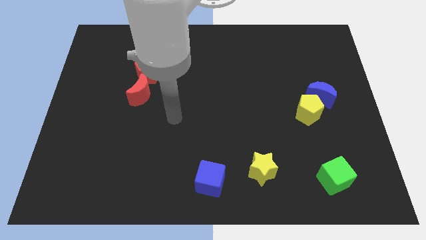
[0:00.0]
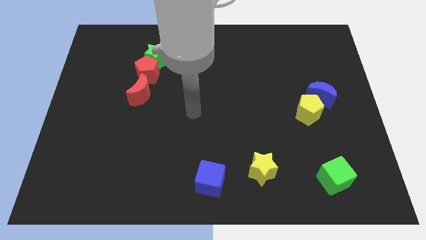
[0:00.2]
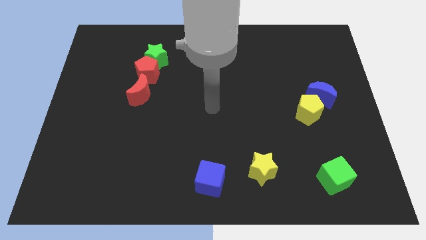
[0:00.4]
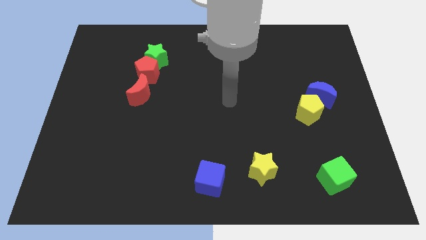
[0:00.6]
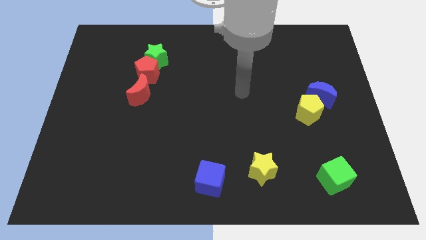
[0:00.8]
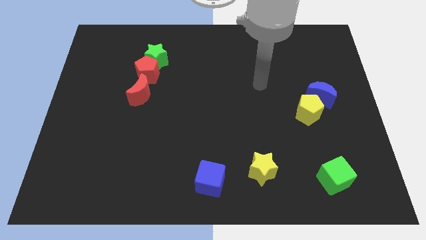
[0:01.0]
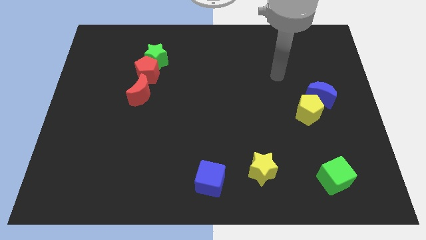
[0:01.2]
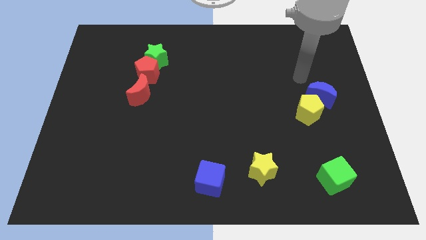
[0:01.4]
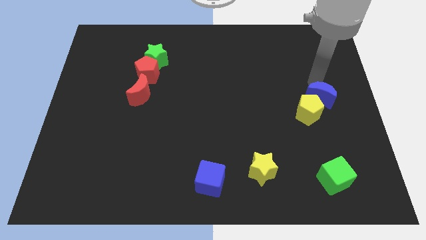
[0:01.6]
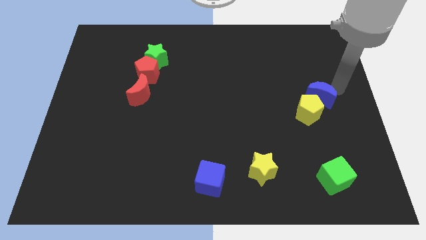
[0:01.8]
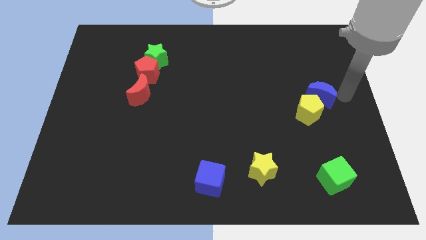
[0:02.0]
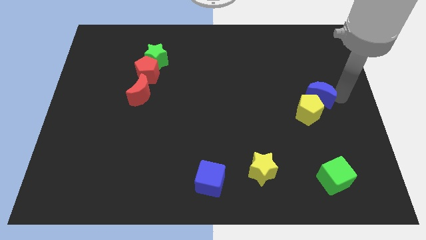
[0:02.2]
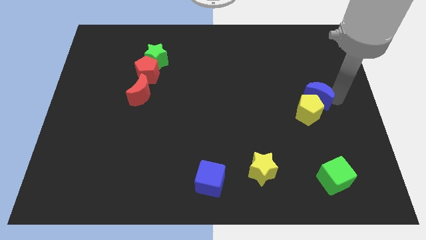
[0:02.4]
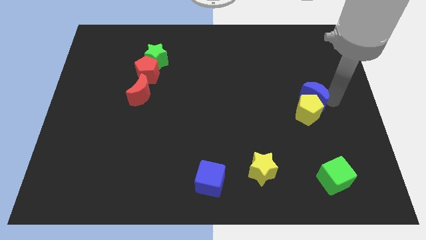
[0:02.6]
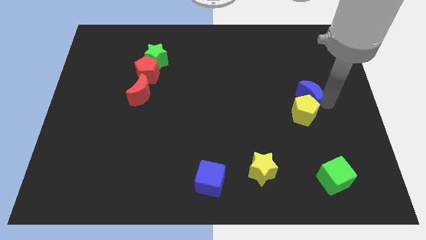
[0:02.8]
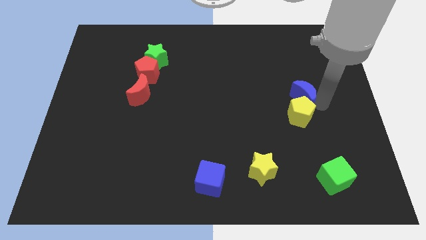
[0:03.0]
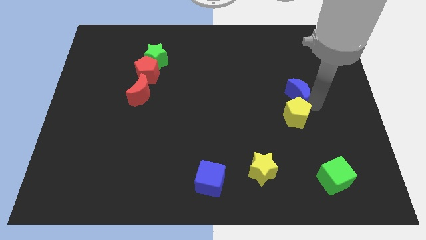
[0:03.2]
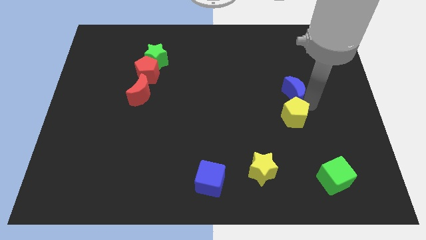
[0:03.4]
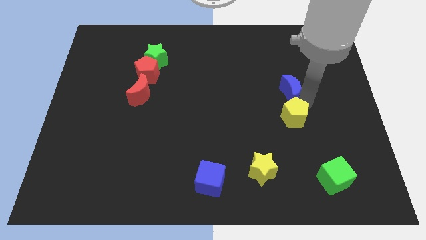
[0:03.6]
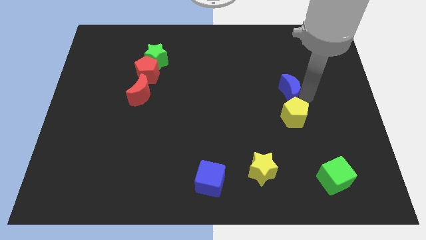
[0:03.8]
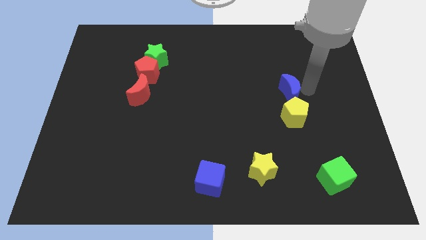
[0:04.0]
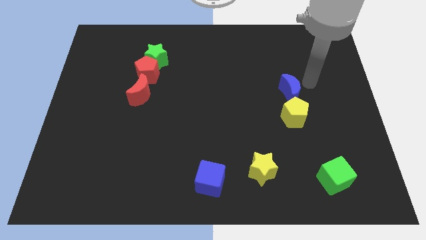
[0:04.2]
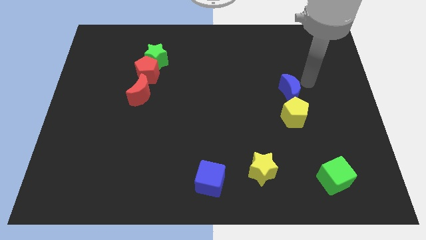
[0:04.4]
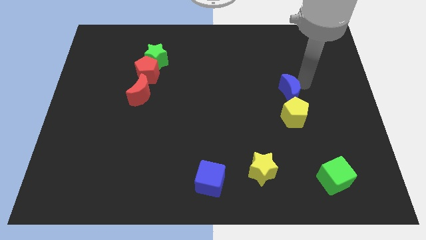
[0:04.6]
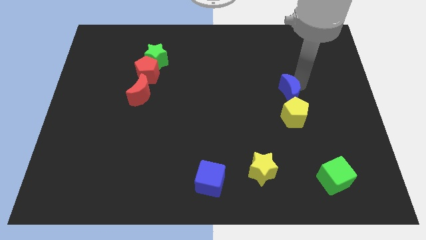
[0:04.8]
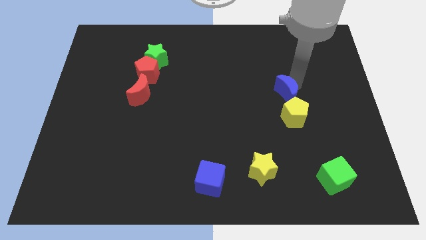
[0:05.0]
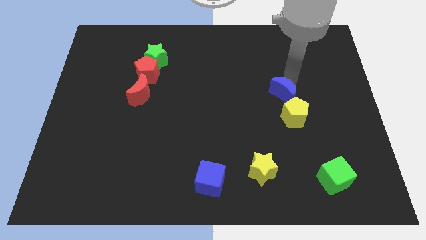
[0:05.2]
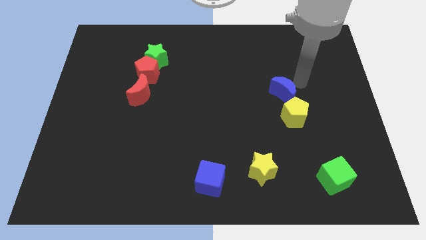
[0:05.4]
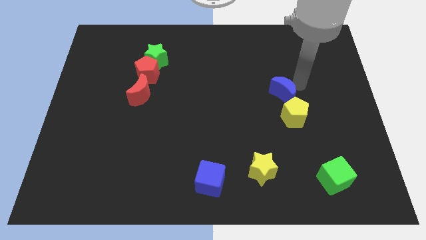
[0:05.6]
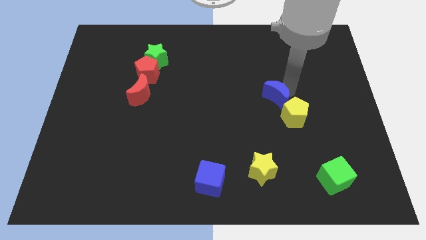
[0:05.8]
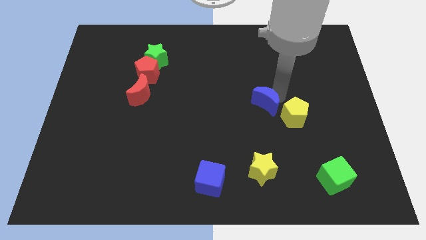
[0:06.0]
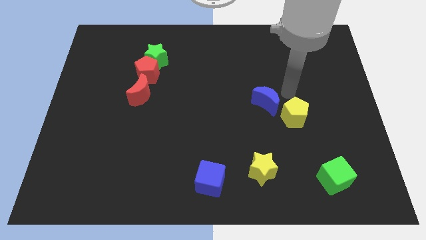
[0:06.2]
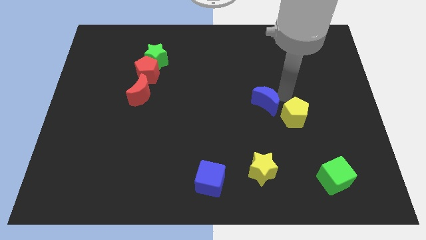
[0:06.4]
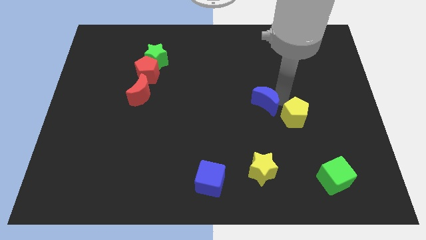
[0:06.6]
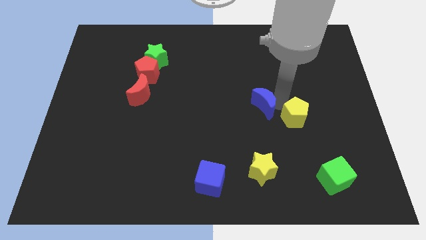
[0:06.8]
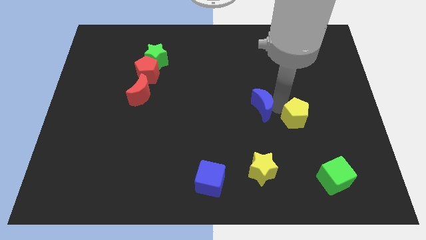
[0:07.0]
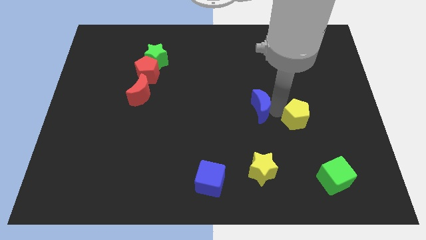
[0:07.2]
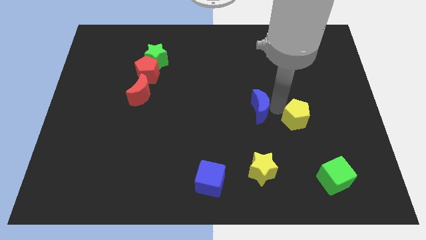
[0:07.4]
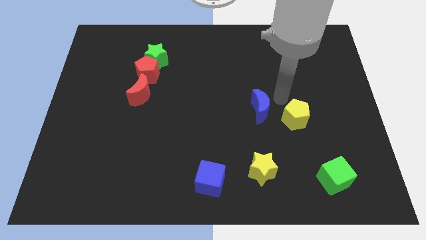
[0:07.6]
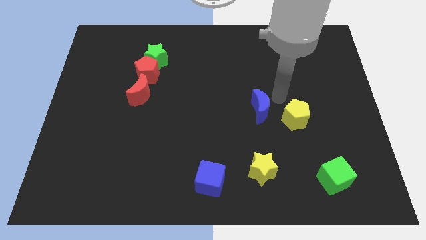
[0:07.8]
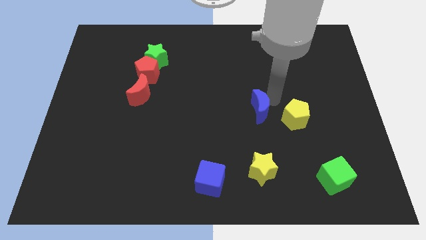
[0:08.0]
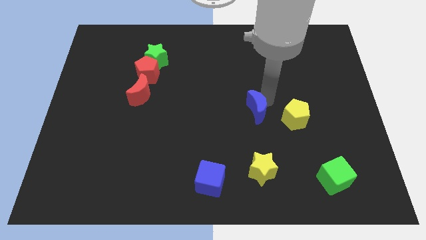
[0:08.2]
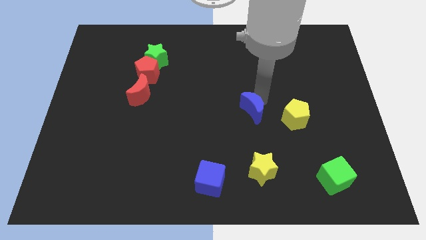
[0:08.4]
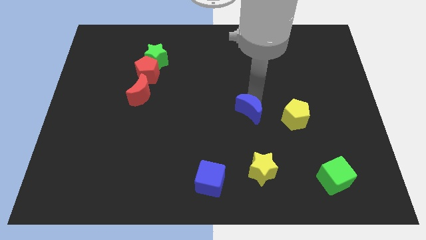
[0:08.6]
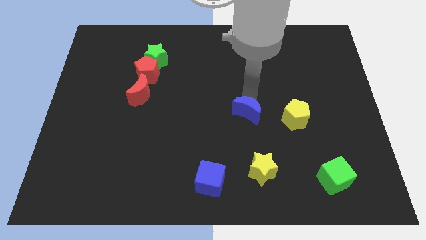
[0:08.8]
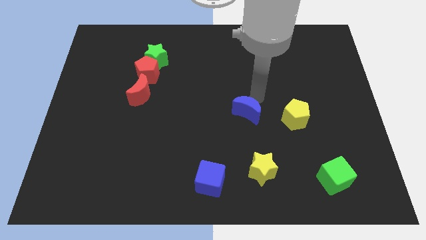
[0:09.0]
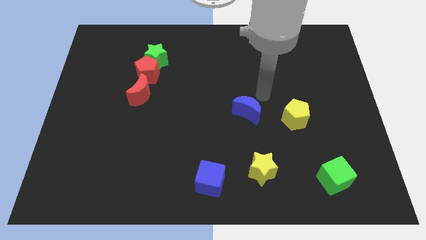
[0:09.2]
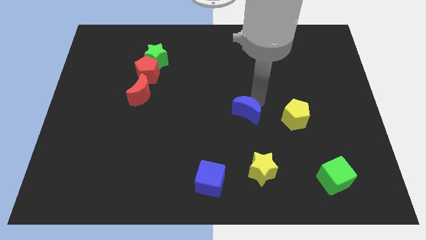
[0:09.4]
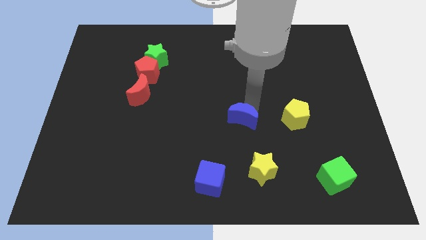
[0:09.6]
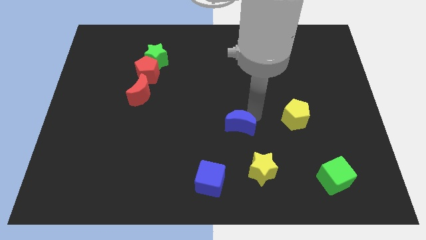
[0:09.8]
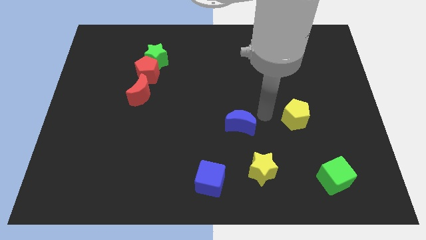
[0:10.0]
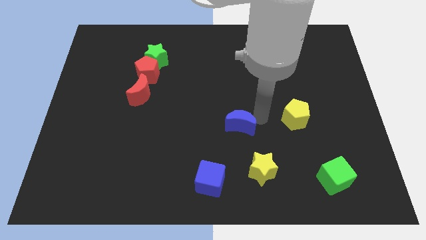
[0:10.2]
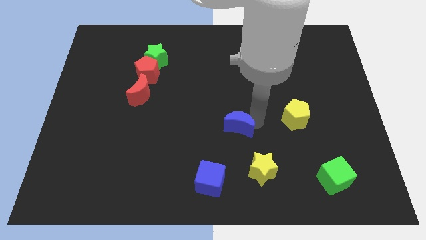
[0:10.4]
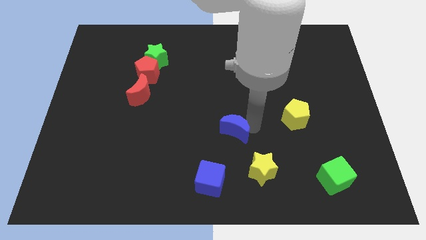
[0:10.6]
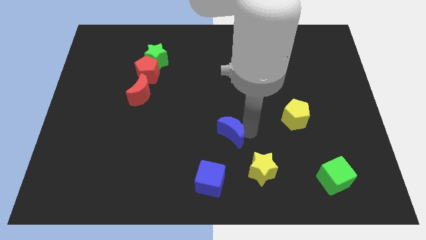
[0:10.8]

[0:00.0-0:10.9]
push the blue moon to the top of the blue cube

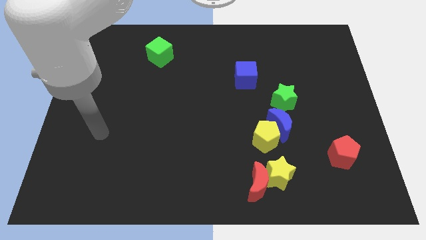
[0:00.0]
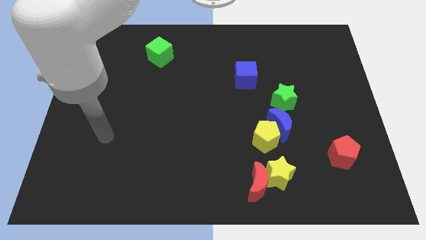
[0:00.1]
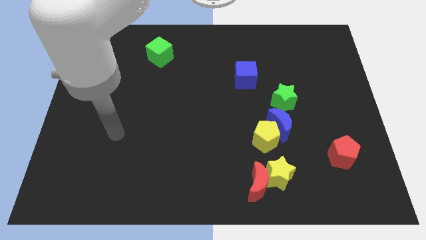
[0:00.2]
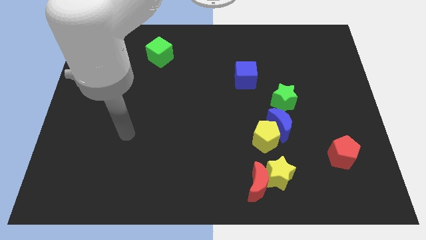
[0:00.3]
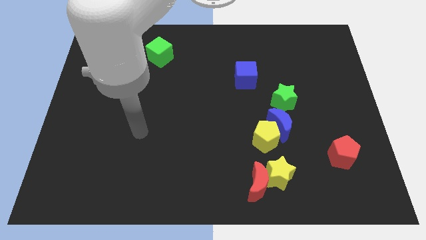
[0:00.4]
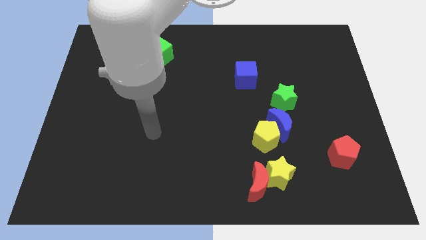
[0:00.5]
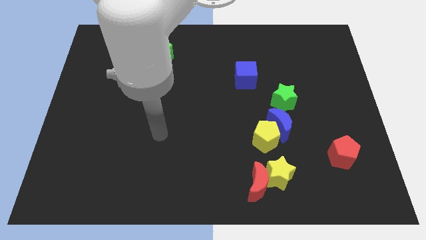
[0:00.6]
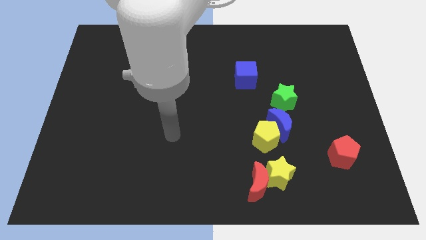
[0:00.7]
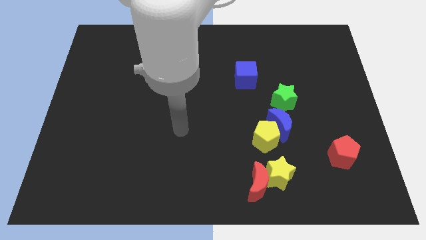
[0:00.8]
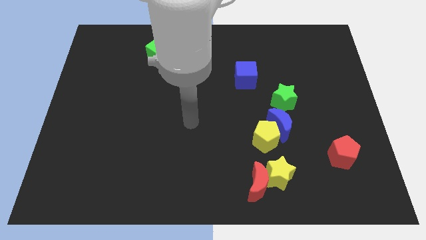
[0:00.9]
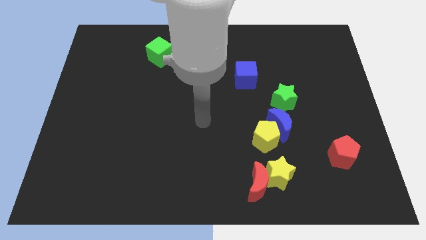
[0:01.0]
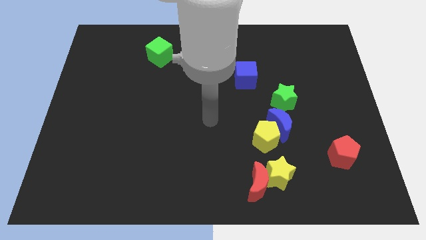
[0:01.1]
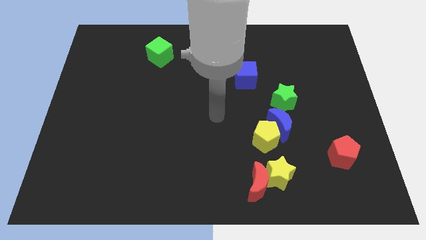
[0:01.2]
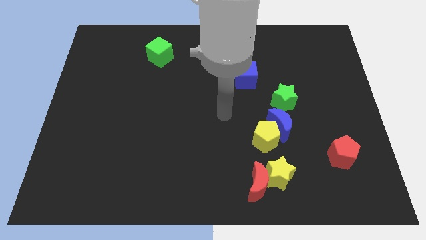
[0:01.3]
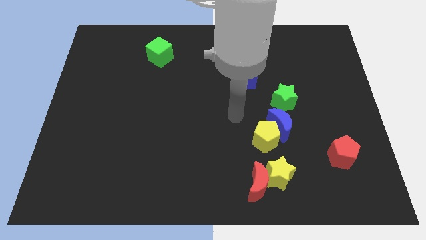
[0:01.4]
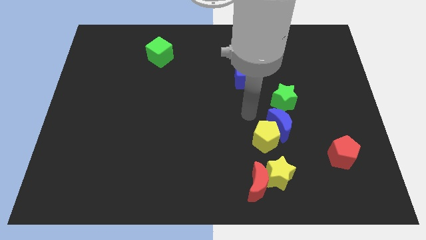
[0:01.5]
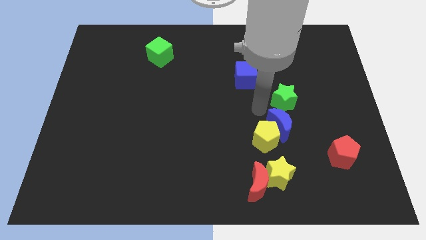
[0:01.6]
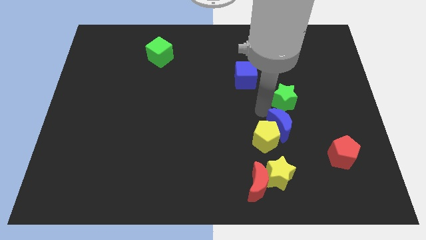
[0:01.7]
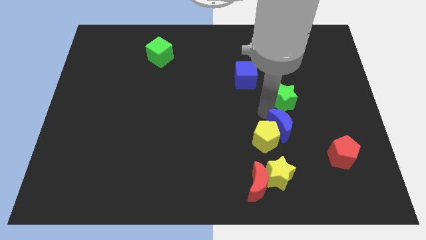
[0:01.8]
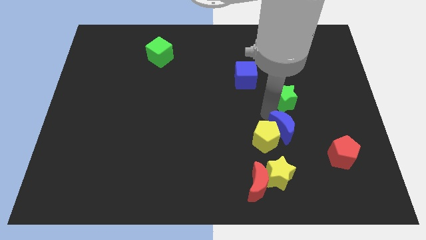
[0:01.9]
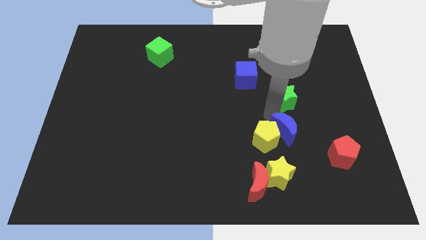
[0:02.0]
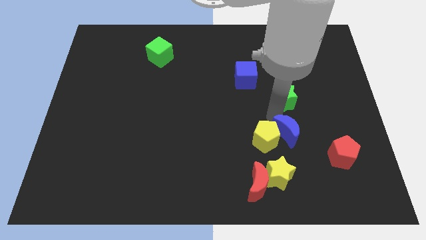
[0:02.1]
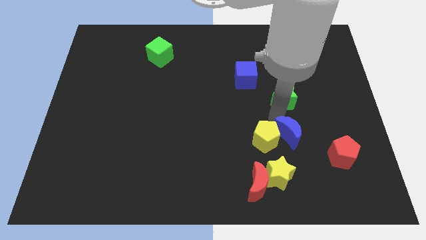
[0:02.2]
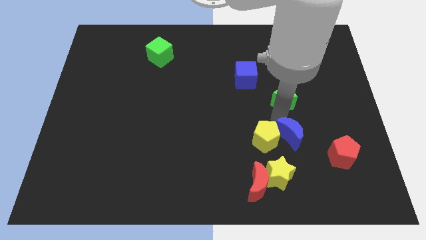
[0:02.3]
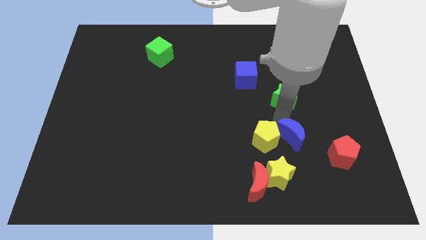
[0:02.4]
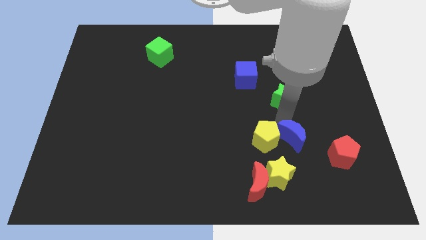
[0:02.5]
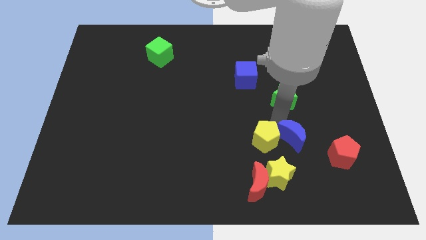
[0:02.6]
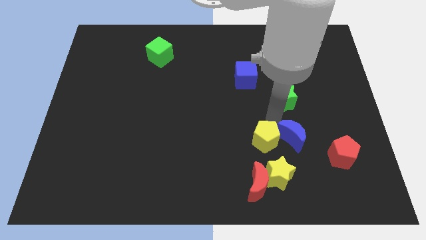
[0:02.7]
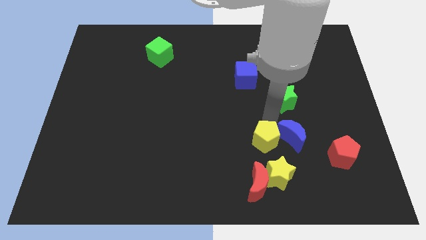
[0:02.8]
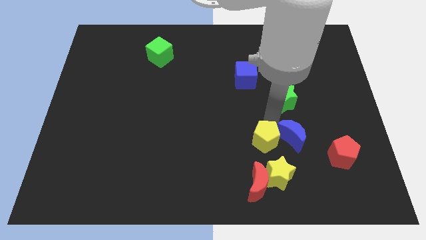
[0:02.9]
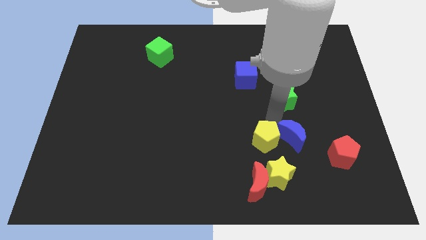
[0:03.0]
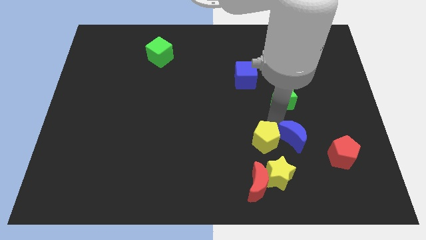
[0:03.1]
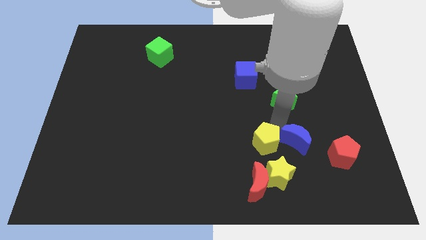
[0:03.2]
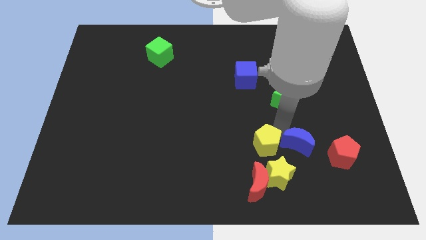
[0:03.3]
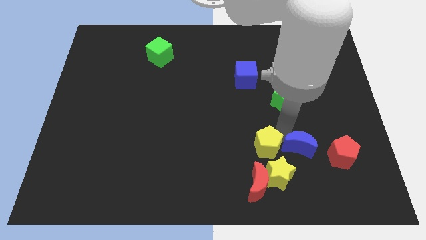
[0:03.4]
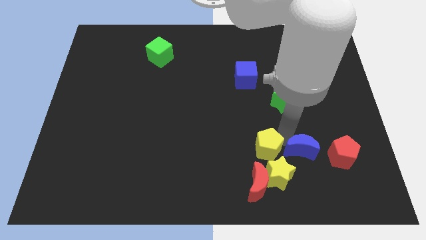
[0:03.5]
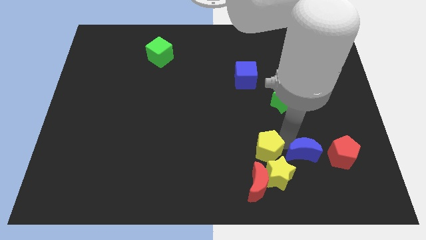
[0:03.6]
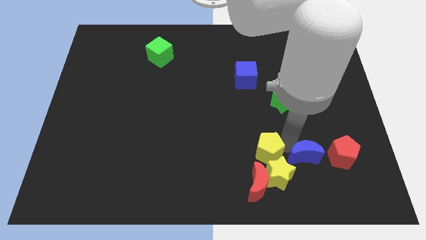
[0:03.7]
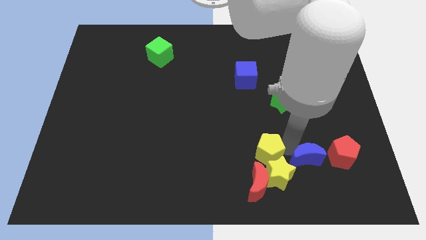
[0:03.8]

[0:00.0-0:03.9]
put the blue moon right of the yellow star
